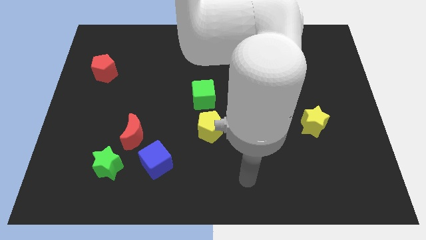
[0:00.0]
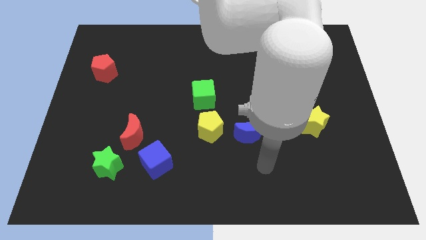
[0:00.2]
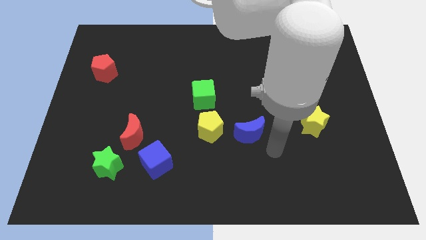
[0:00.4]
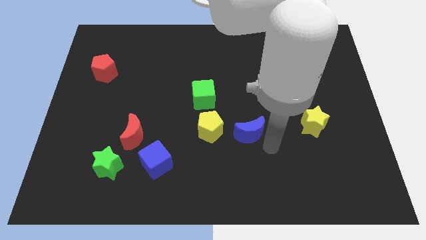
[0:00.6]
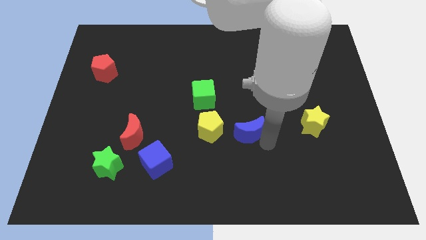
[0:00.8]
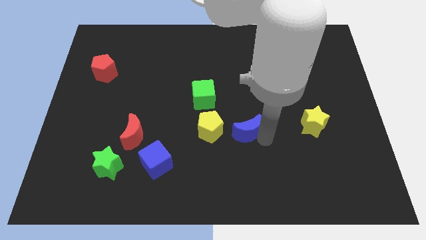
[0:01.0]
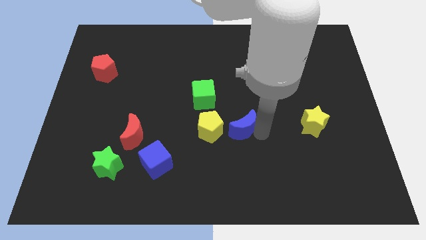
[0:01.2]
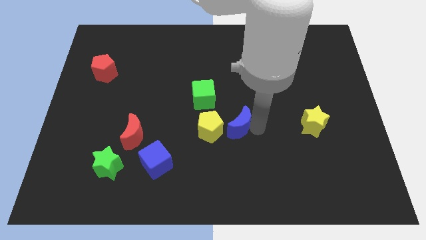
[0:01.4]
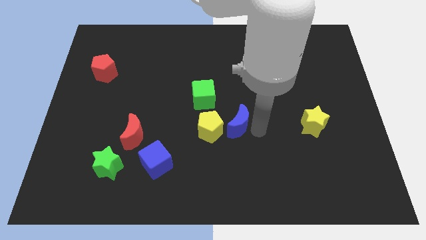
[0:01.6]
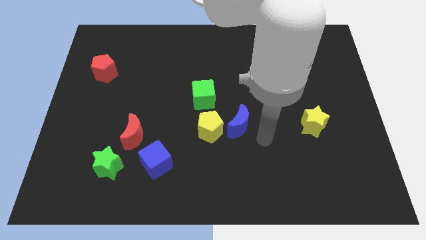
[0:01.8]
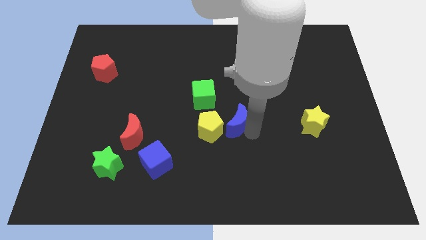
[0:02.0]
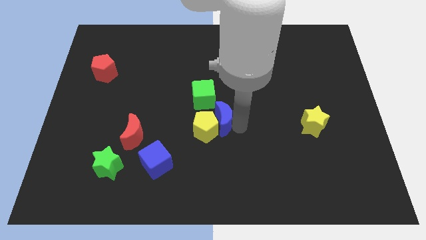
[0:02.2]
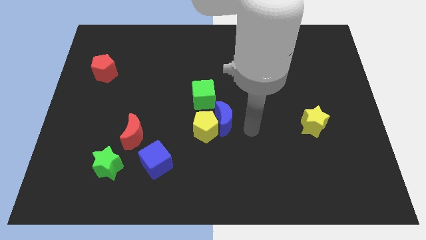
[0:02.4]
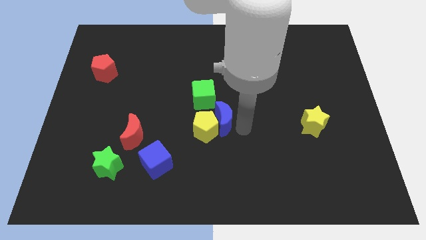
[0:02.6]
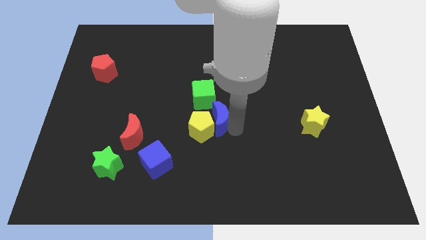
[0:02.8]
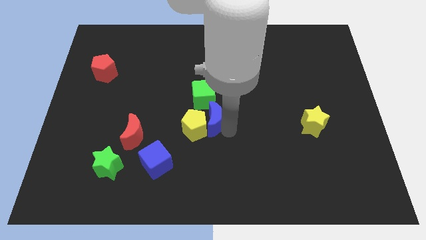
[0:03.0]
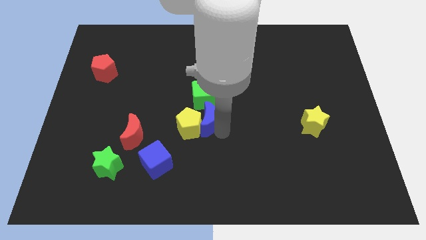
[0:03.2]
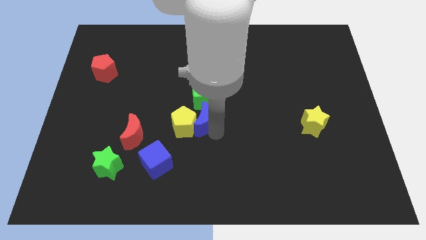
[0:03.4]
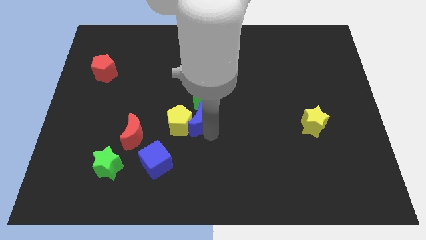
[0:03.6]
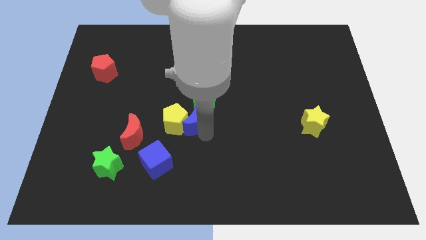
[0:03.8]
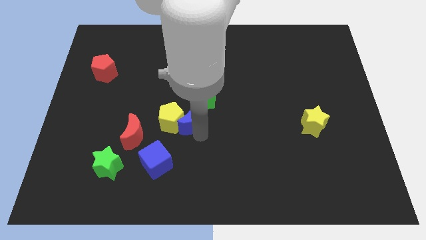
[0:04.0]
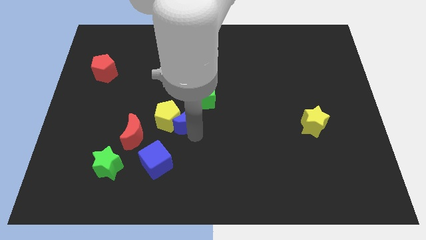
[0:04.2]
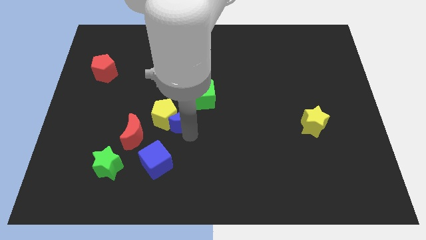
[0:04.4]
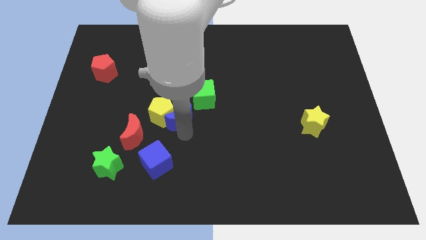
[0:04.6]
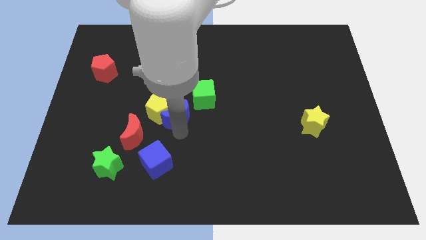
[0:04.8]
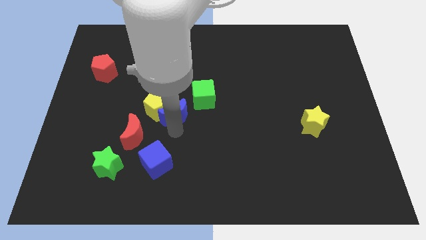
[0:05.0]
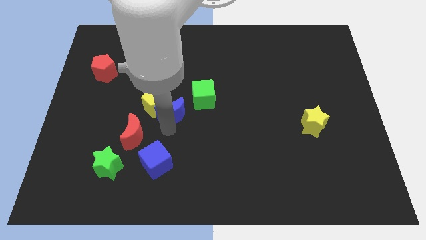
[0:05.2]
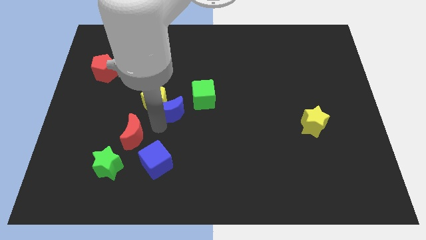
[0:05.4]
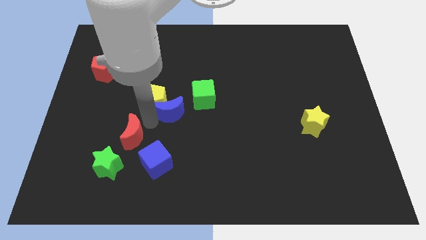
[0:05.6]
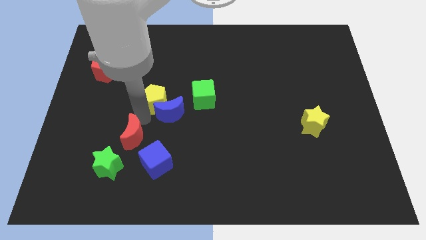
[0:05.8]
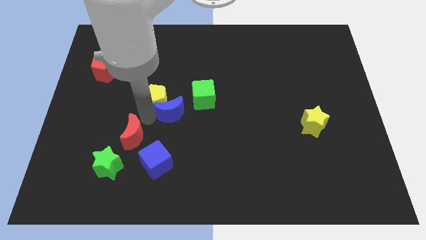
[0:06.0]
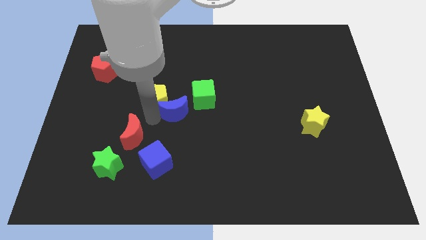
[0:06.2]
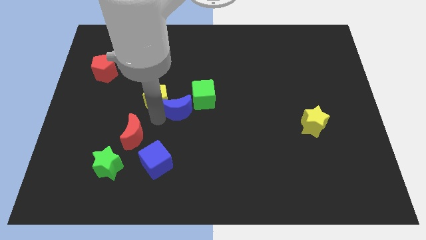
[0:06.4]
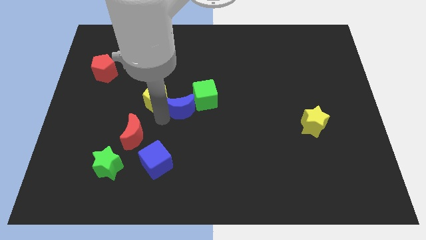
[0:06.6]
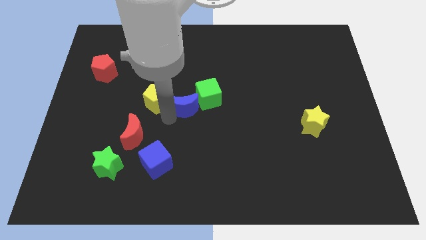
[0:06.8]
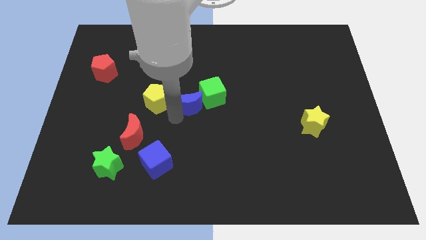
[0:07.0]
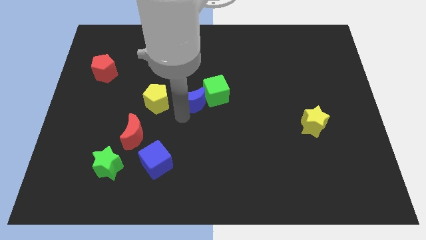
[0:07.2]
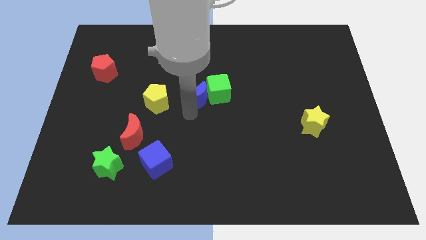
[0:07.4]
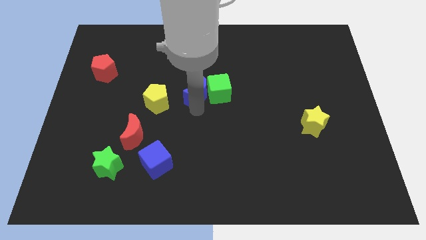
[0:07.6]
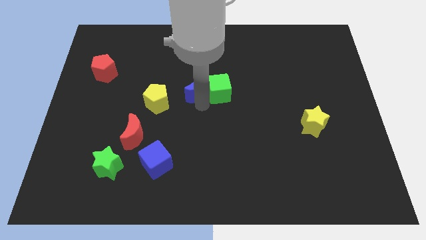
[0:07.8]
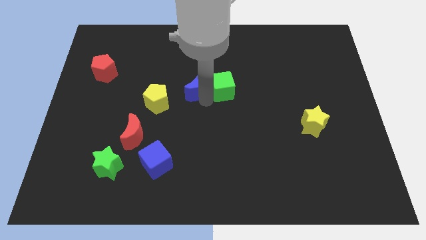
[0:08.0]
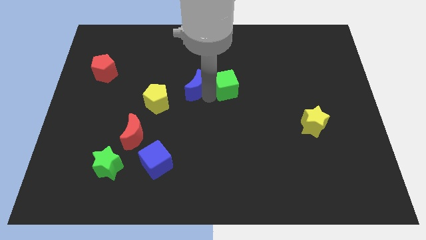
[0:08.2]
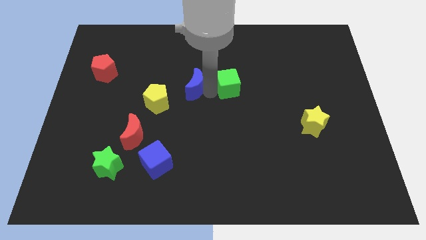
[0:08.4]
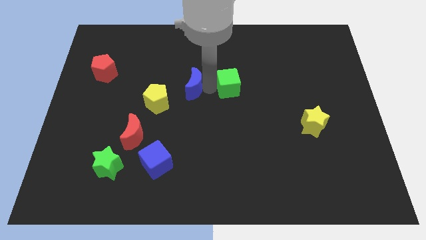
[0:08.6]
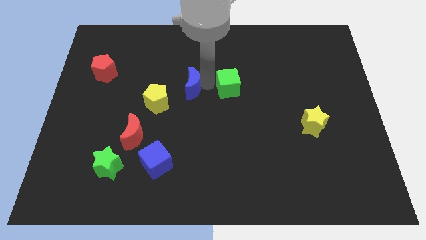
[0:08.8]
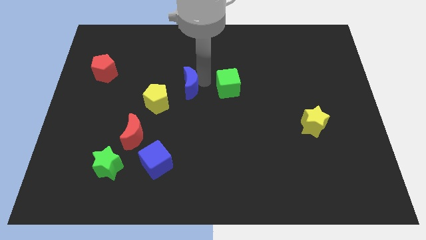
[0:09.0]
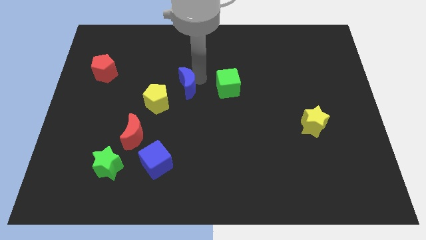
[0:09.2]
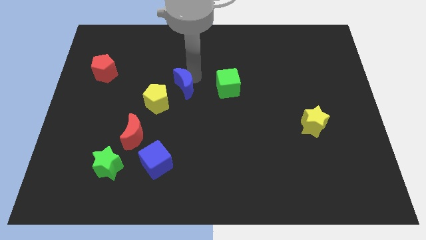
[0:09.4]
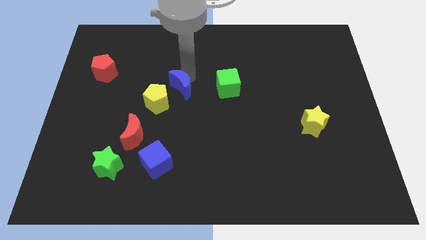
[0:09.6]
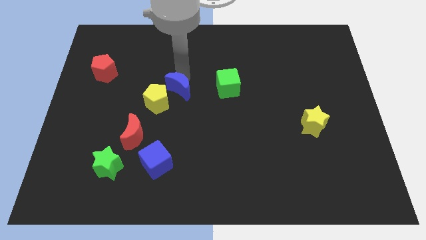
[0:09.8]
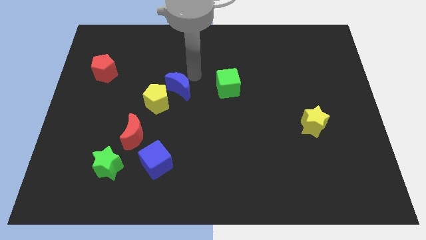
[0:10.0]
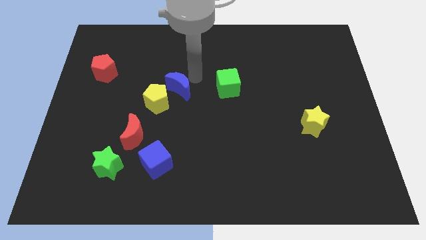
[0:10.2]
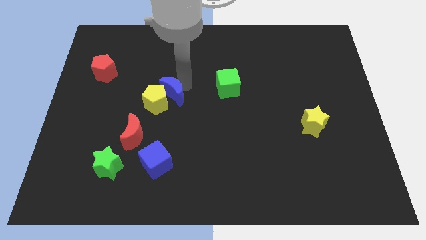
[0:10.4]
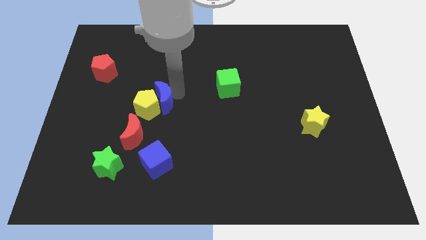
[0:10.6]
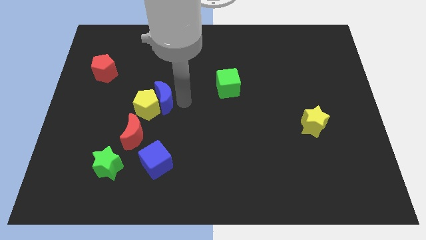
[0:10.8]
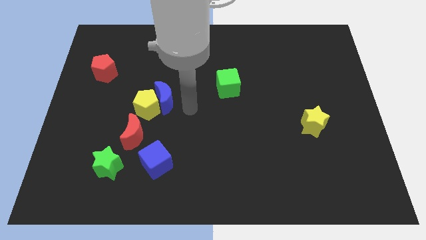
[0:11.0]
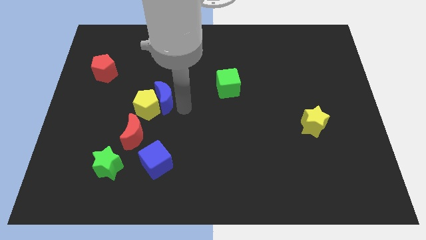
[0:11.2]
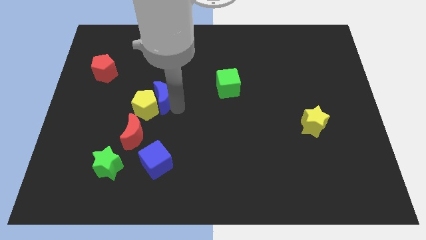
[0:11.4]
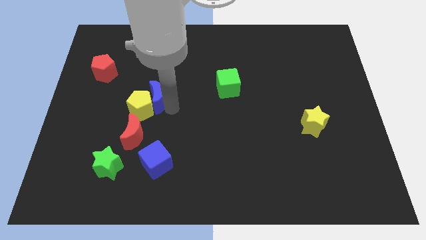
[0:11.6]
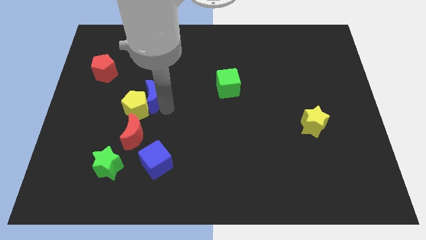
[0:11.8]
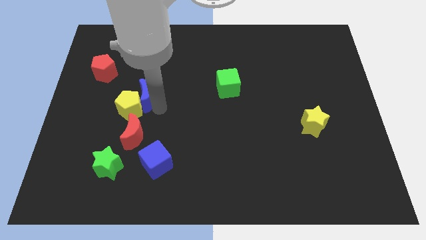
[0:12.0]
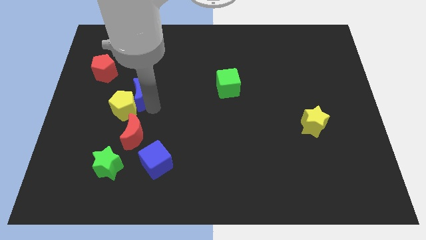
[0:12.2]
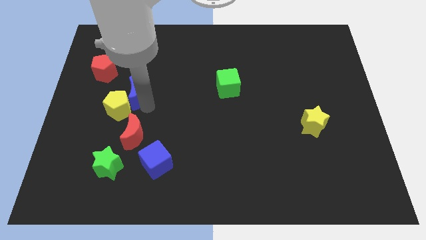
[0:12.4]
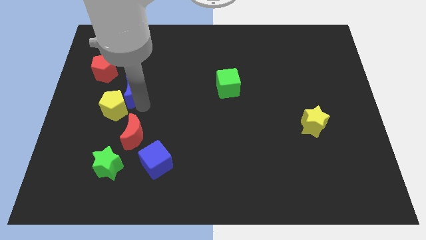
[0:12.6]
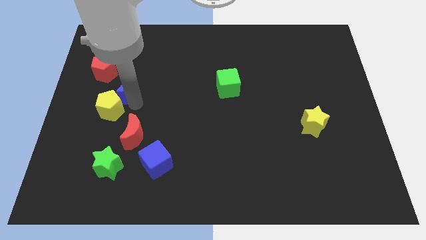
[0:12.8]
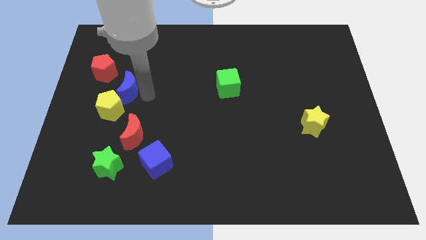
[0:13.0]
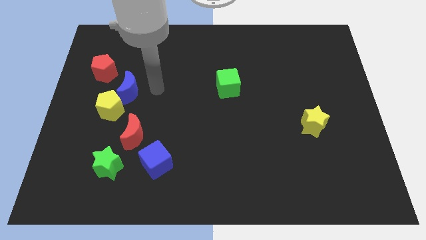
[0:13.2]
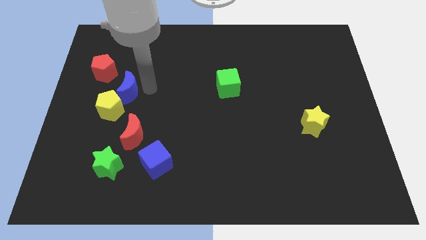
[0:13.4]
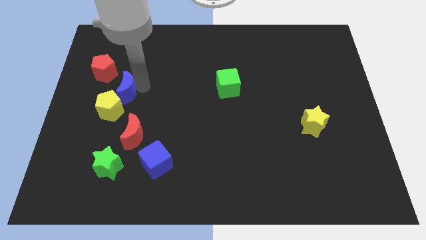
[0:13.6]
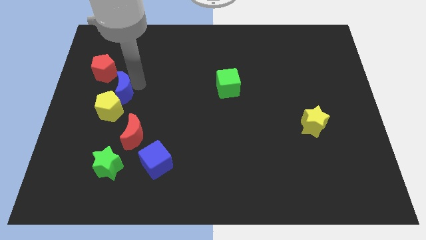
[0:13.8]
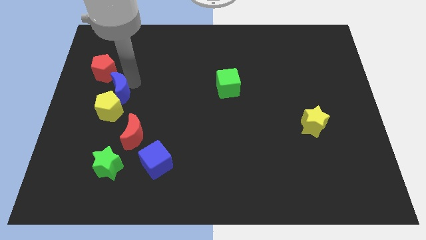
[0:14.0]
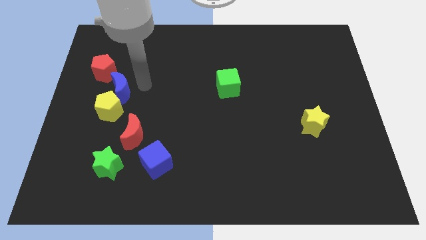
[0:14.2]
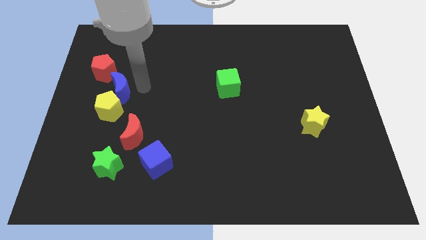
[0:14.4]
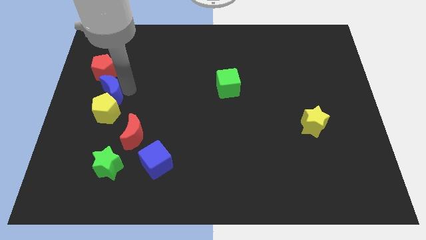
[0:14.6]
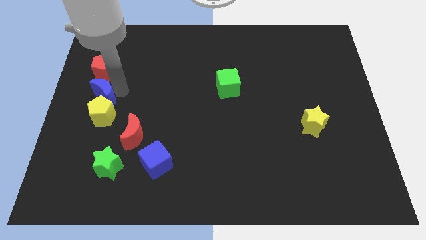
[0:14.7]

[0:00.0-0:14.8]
slide the blue moon to the center left
